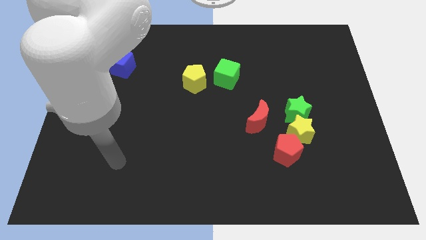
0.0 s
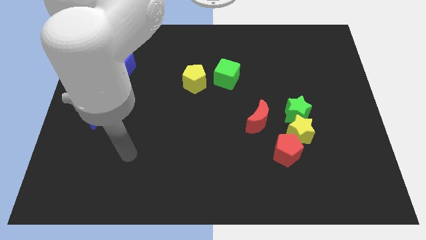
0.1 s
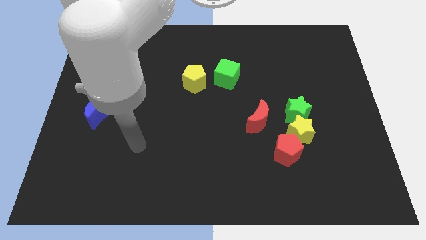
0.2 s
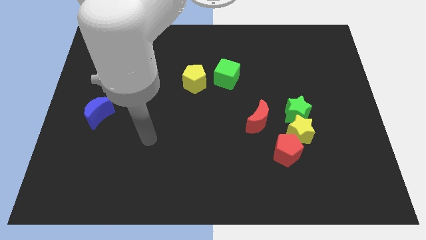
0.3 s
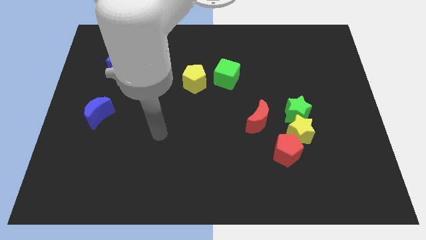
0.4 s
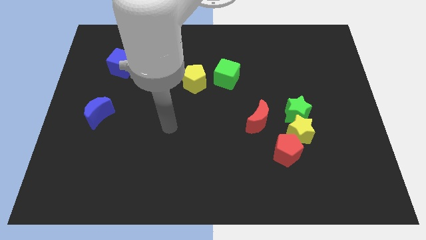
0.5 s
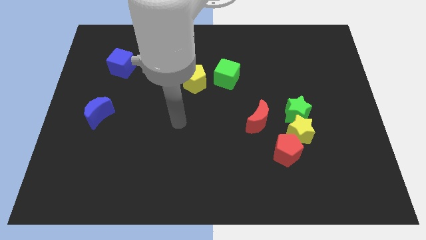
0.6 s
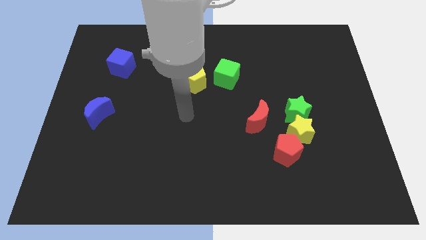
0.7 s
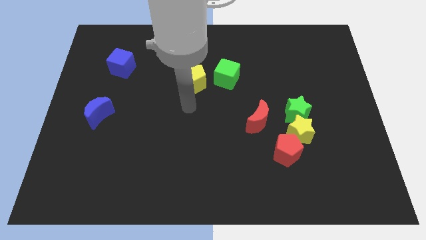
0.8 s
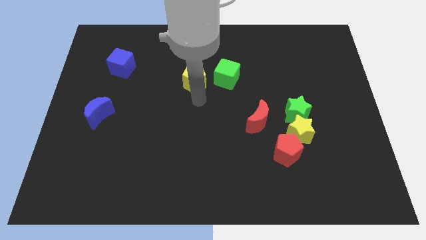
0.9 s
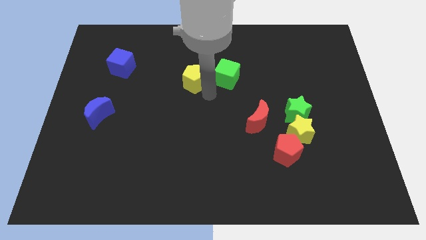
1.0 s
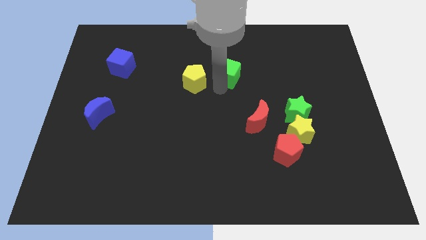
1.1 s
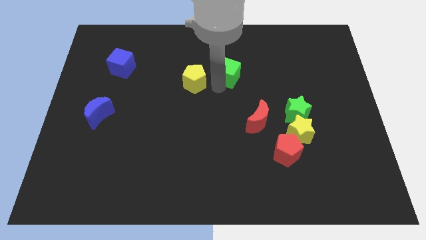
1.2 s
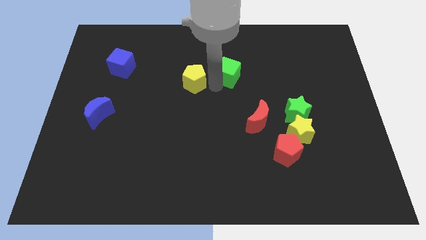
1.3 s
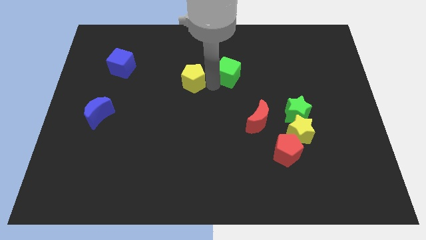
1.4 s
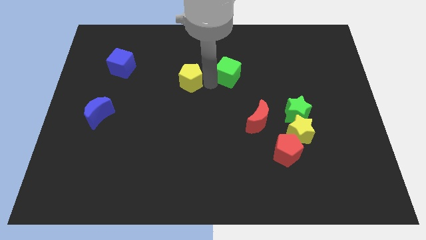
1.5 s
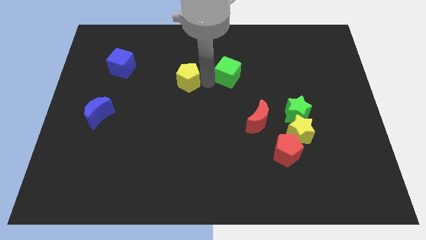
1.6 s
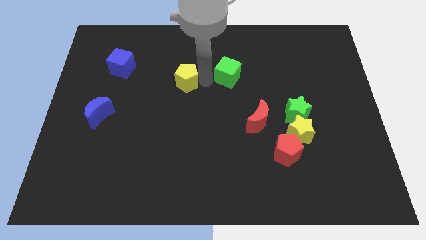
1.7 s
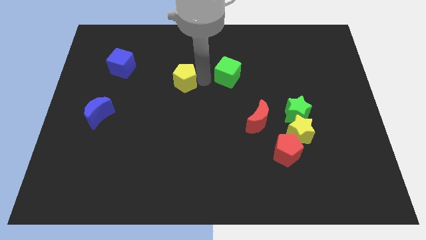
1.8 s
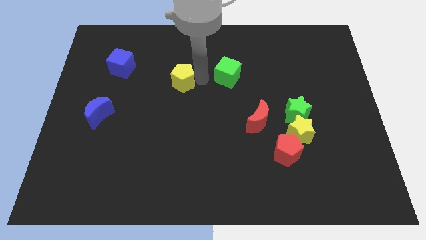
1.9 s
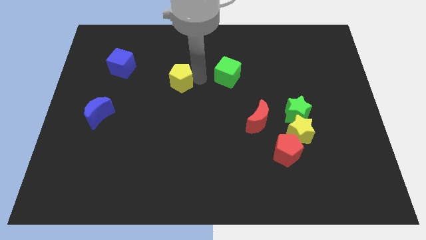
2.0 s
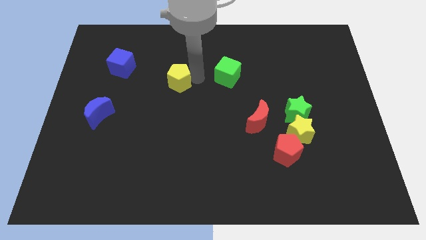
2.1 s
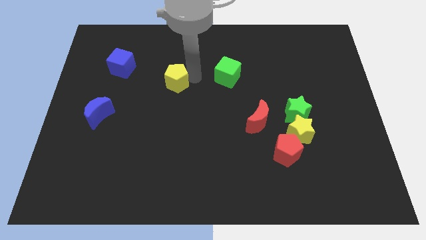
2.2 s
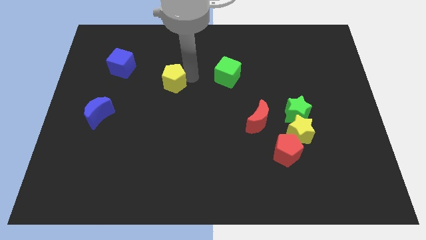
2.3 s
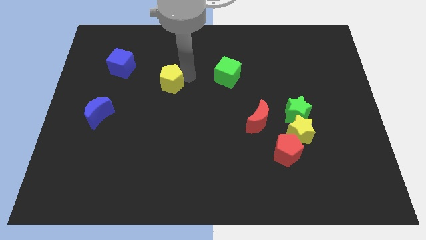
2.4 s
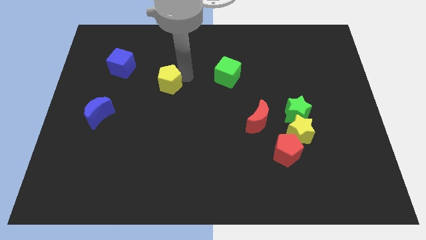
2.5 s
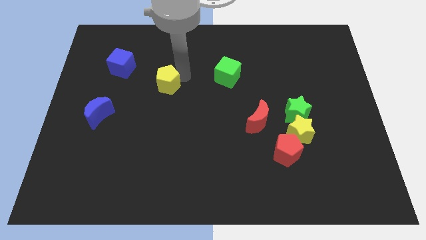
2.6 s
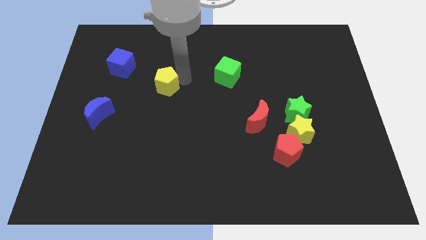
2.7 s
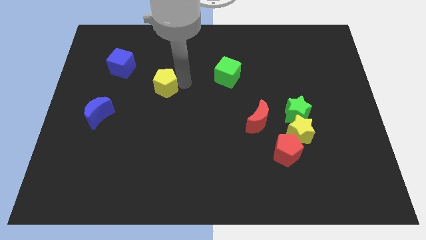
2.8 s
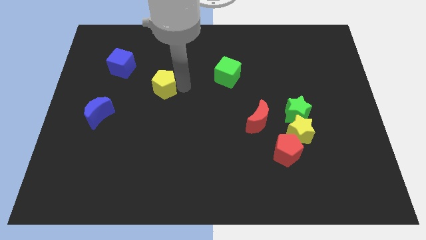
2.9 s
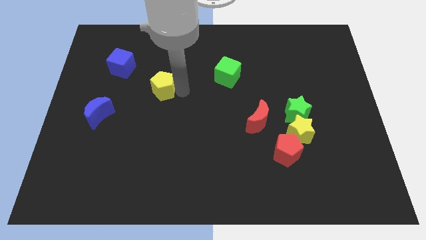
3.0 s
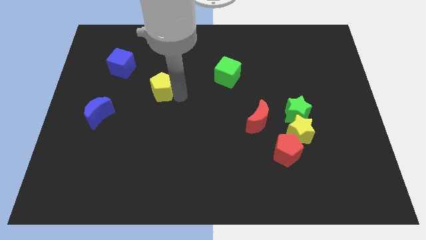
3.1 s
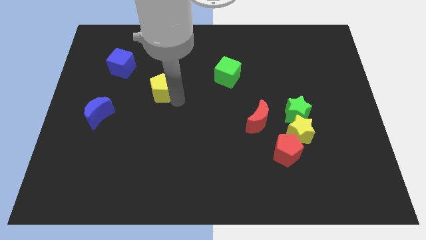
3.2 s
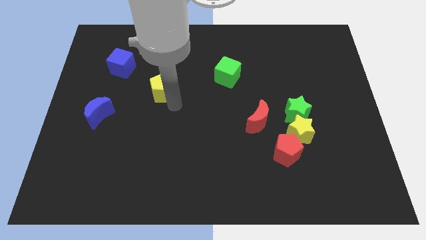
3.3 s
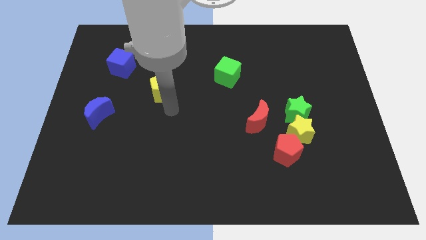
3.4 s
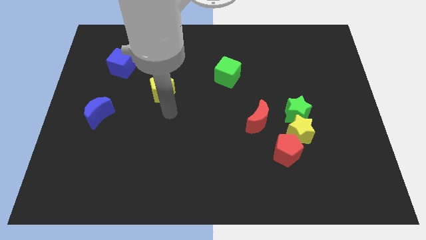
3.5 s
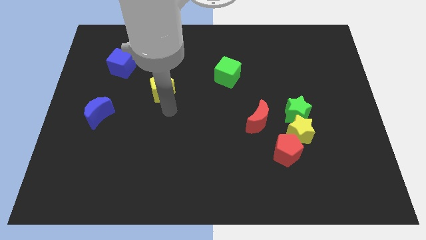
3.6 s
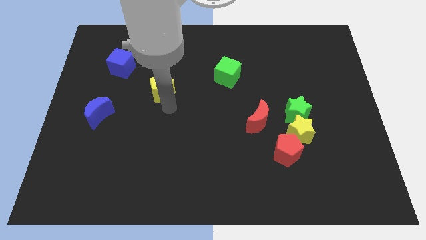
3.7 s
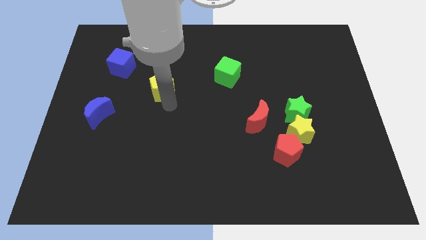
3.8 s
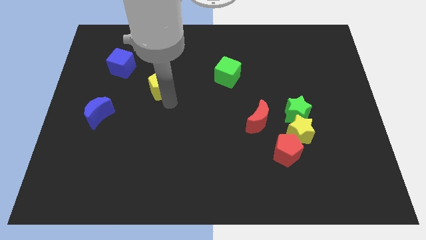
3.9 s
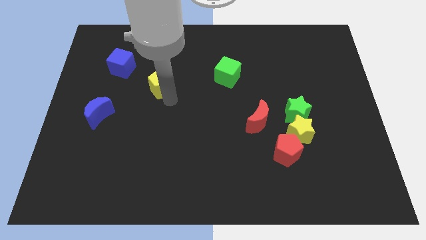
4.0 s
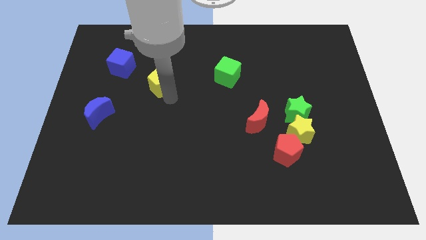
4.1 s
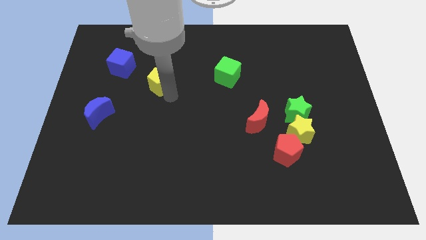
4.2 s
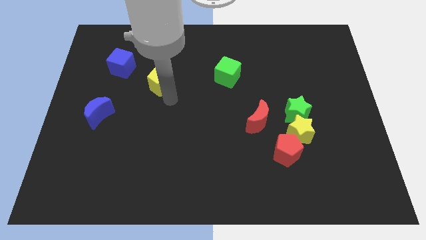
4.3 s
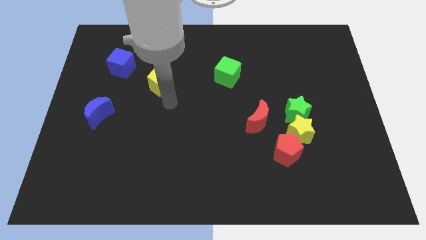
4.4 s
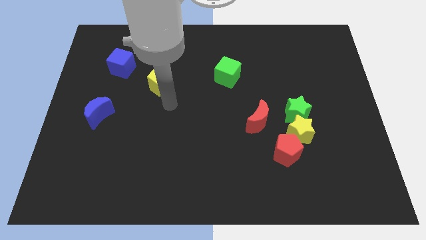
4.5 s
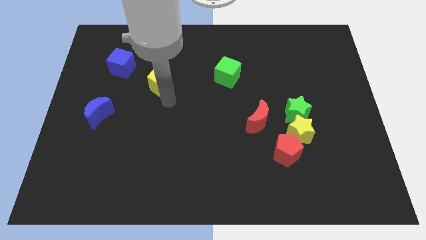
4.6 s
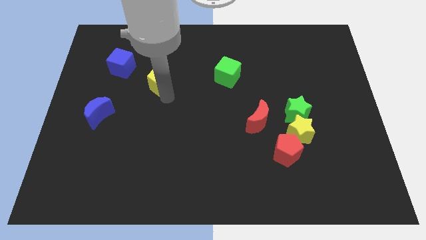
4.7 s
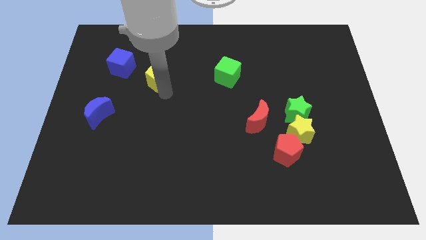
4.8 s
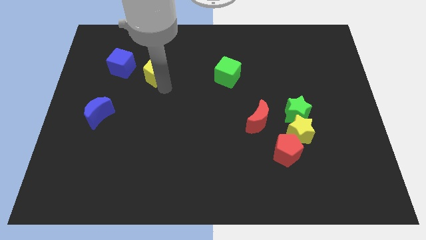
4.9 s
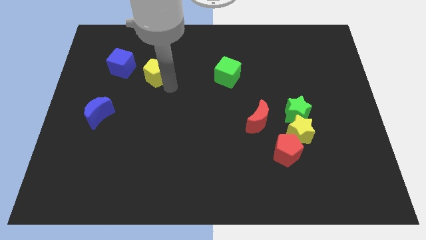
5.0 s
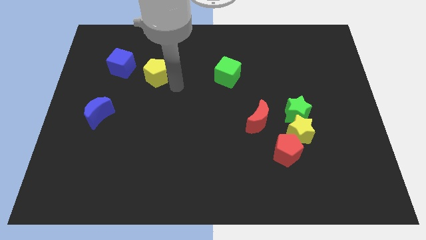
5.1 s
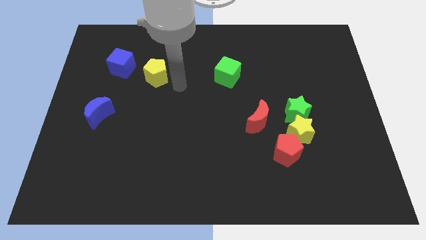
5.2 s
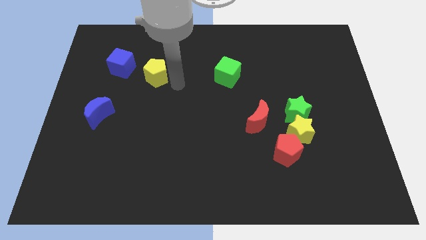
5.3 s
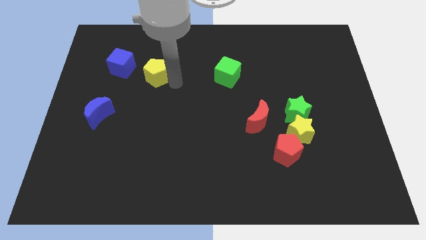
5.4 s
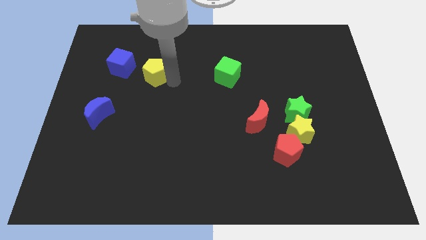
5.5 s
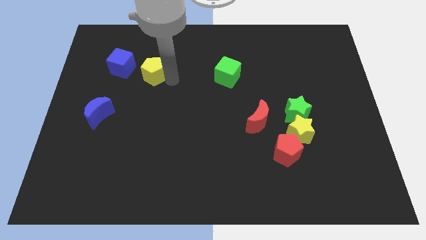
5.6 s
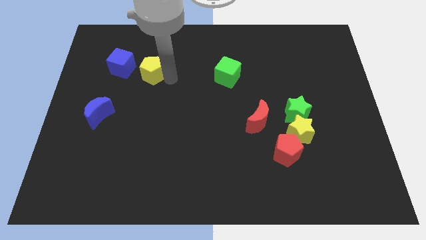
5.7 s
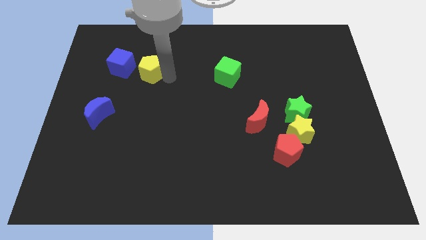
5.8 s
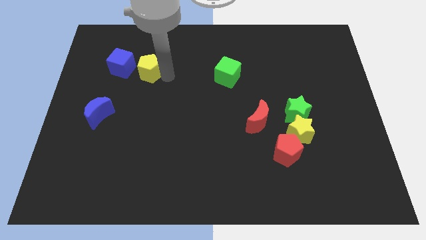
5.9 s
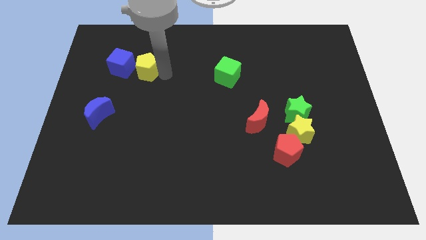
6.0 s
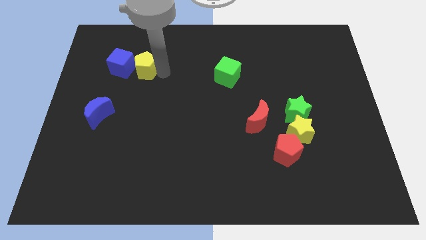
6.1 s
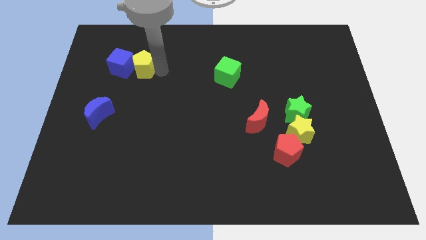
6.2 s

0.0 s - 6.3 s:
put the yellow pentagon to the blue cube

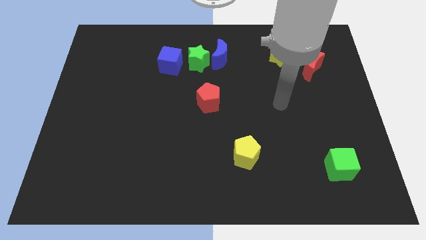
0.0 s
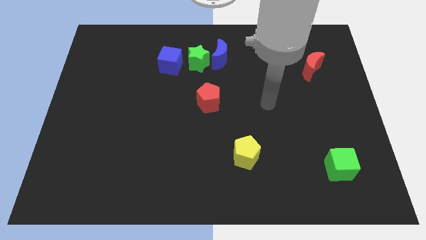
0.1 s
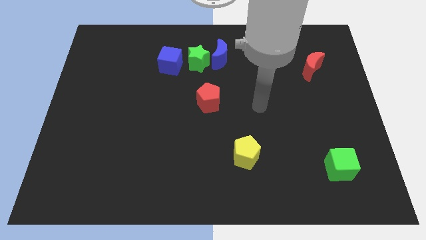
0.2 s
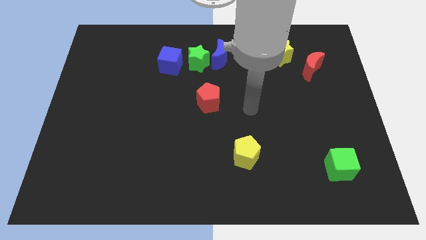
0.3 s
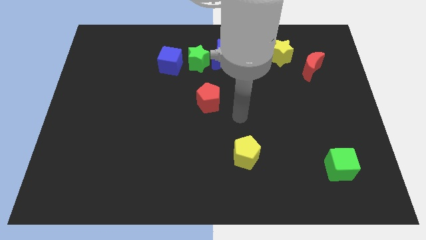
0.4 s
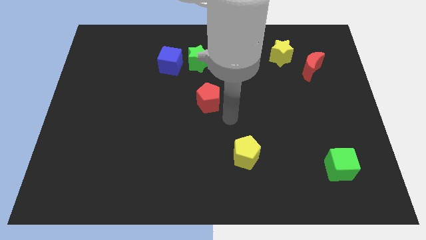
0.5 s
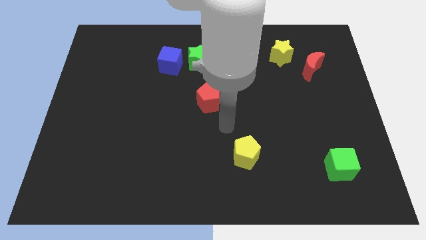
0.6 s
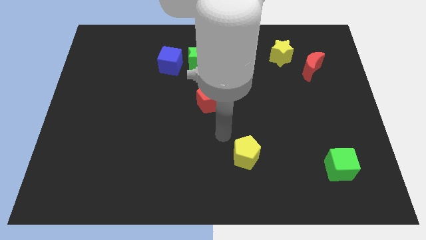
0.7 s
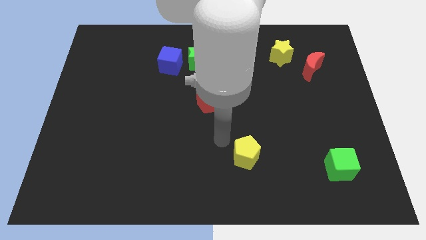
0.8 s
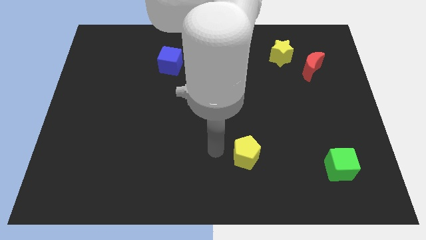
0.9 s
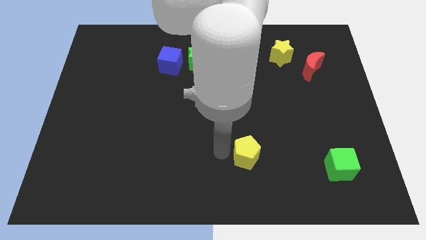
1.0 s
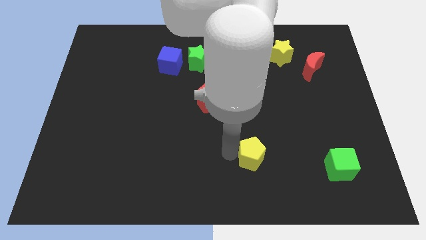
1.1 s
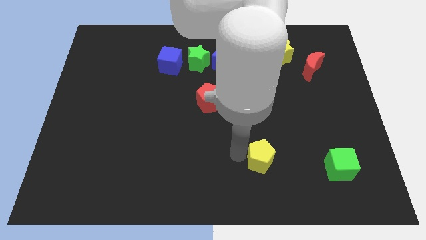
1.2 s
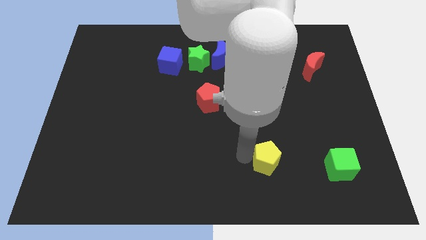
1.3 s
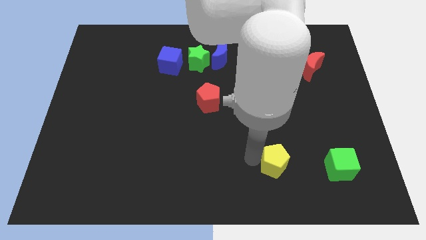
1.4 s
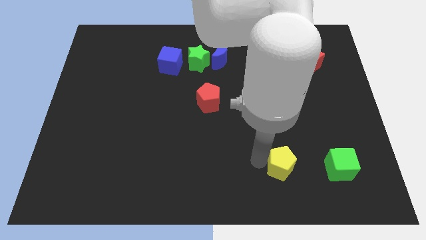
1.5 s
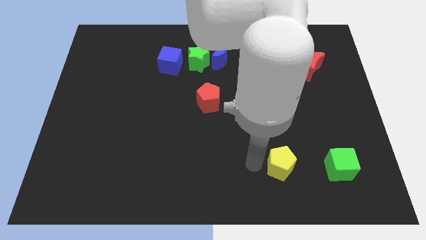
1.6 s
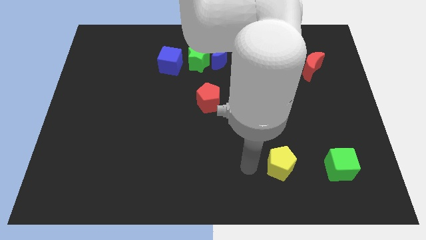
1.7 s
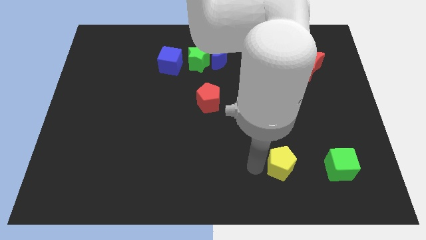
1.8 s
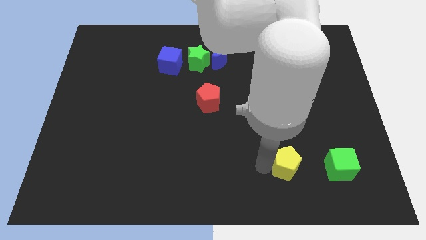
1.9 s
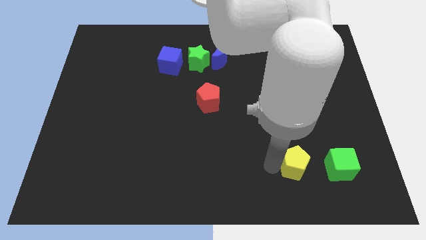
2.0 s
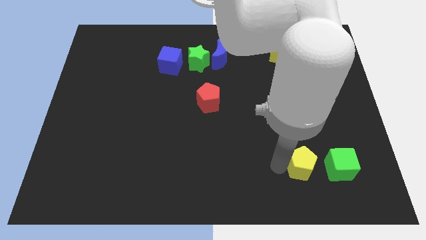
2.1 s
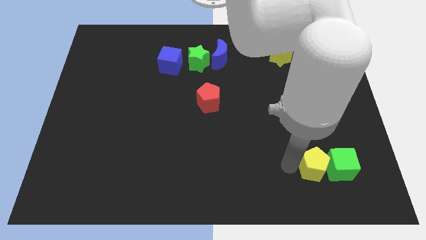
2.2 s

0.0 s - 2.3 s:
push the yellow pentagon close to the green cube
